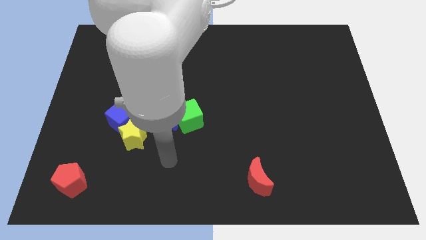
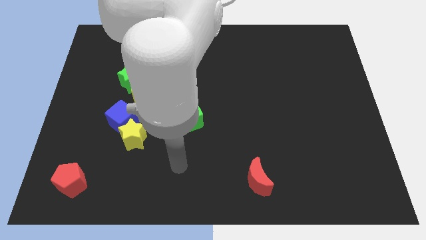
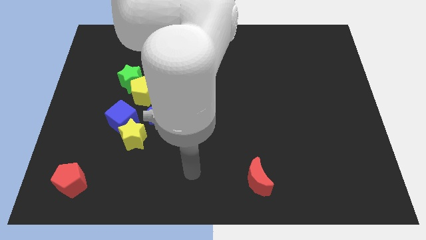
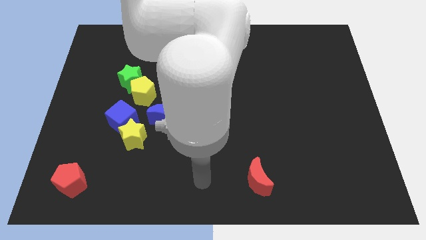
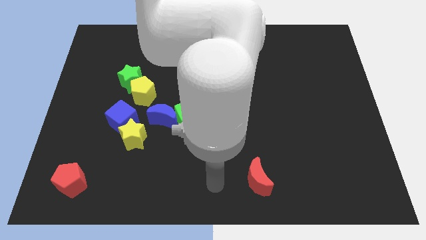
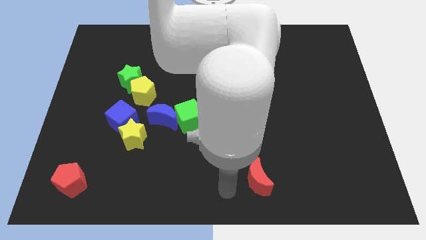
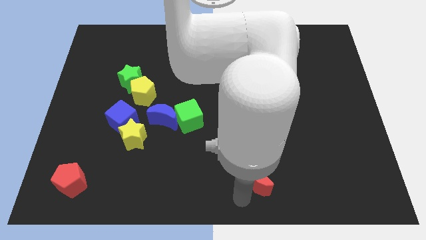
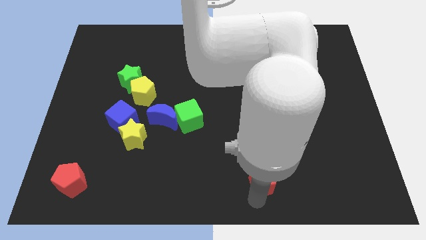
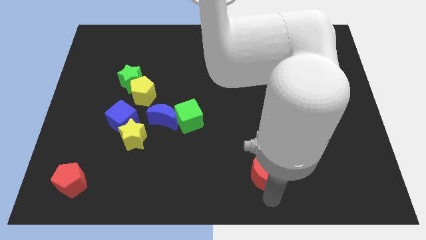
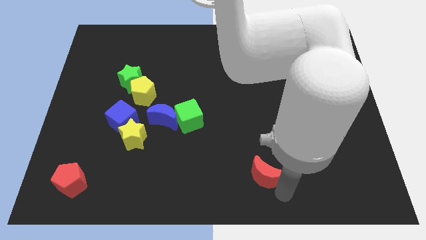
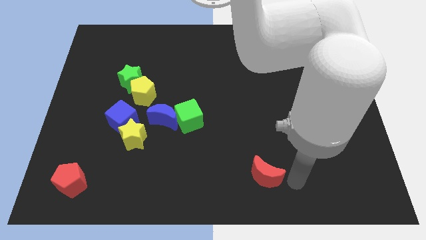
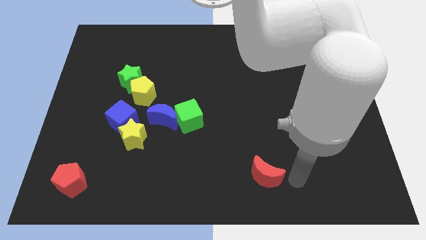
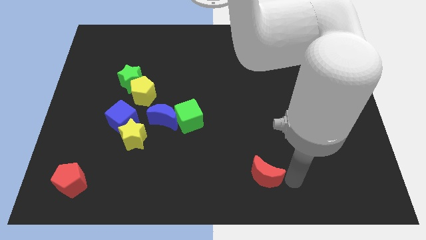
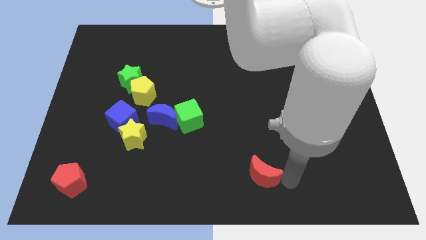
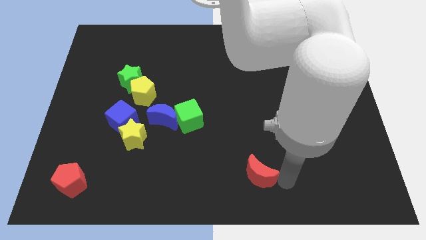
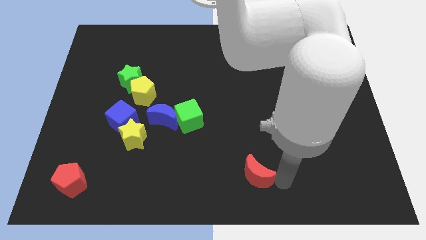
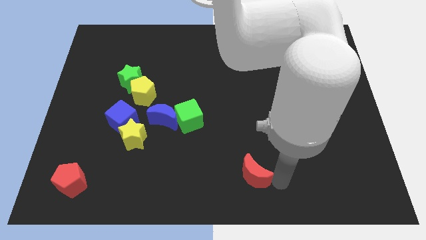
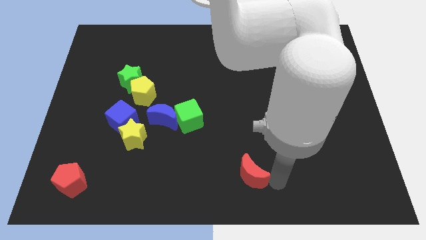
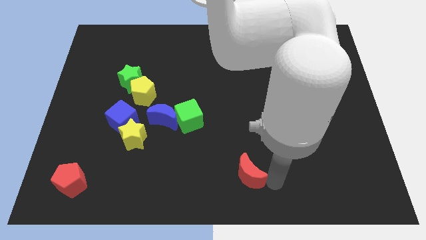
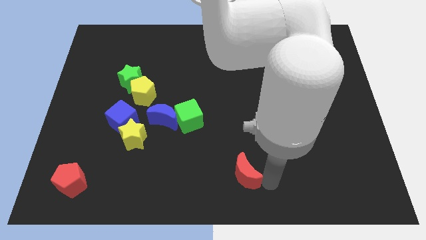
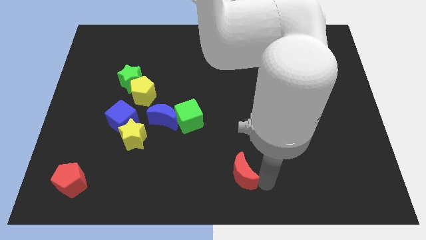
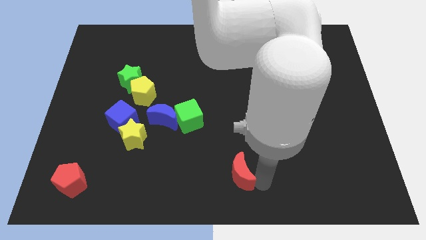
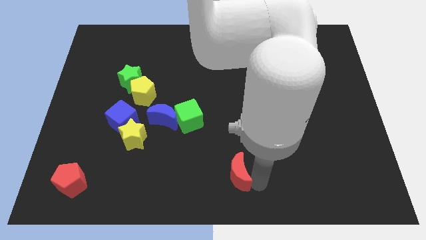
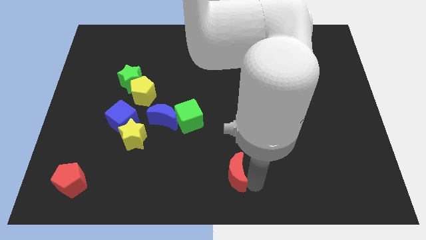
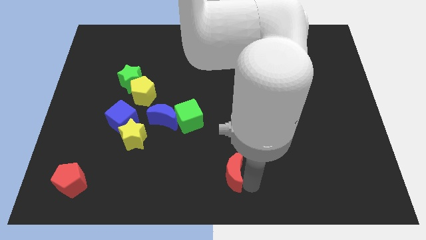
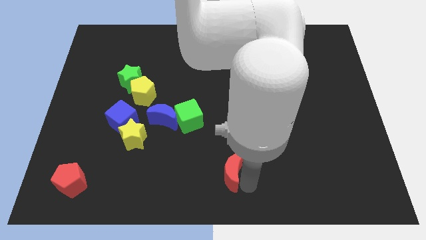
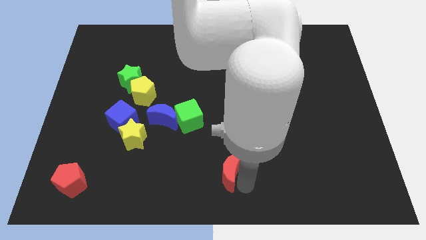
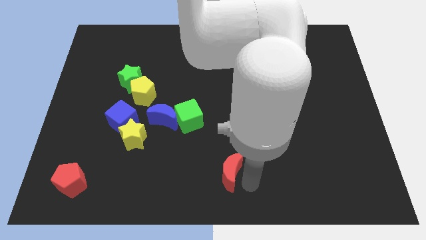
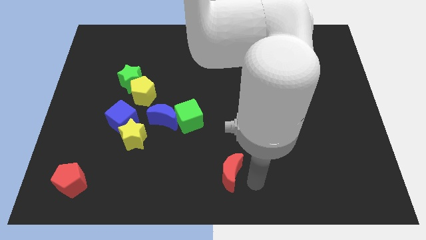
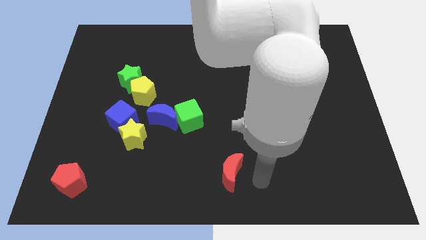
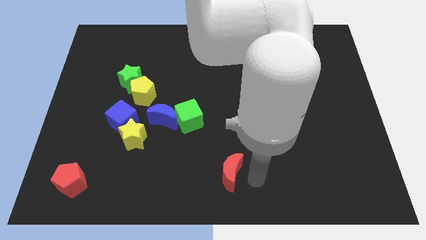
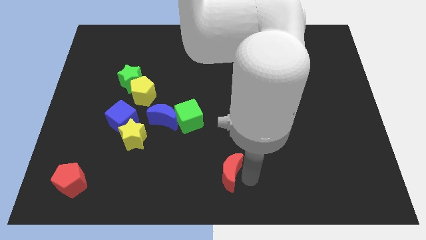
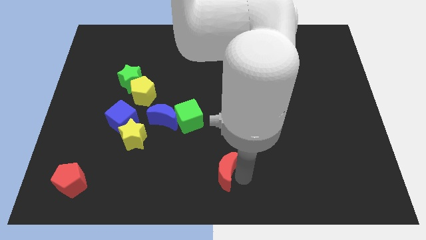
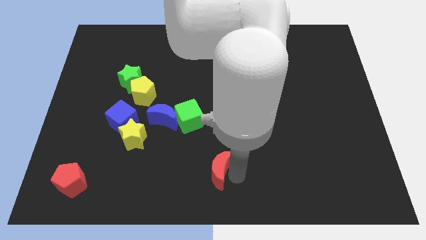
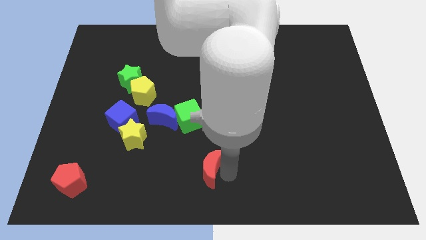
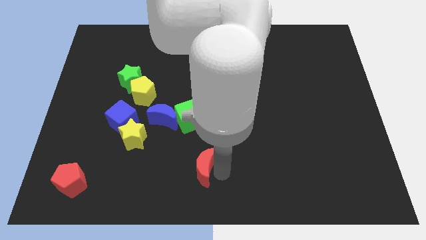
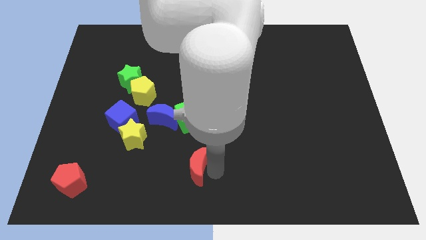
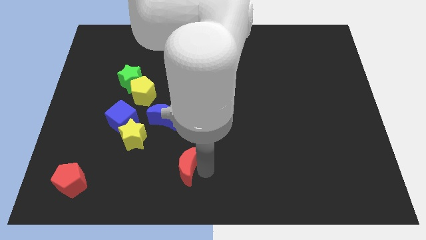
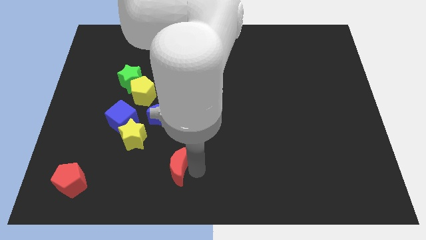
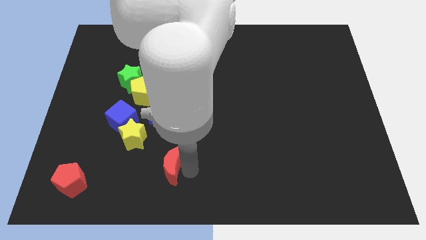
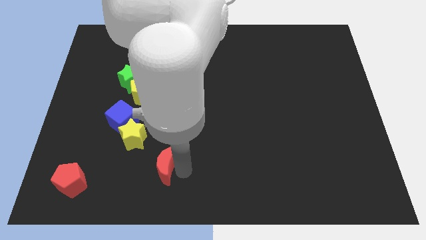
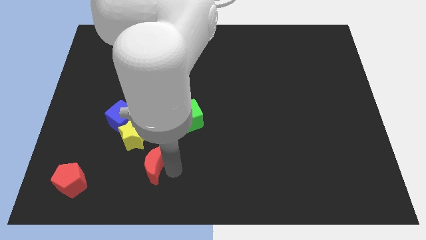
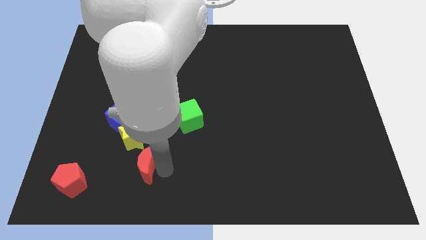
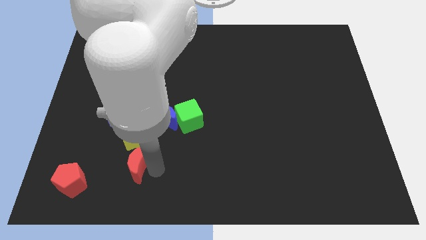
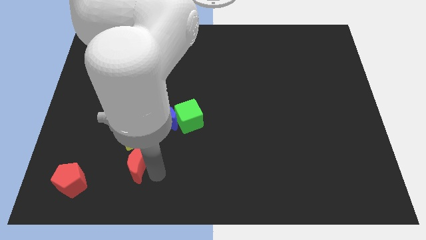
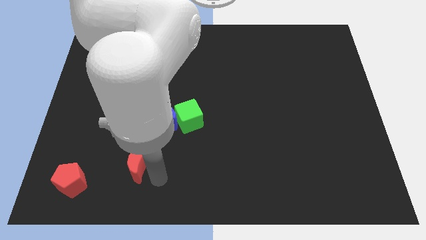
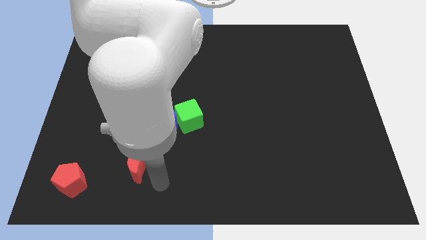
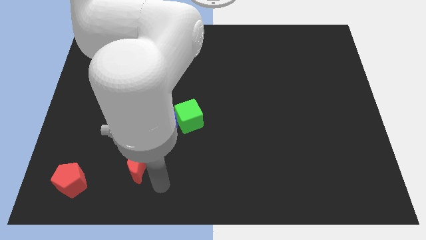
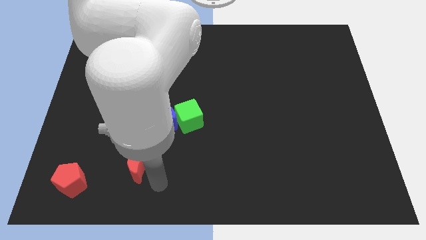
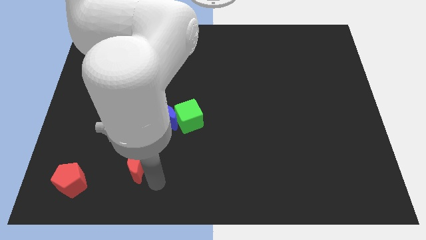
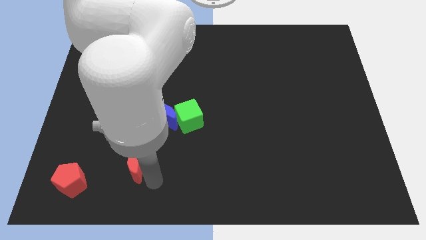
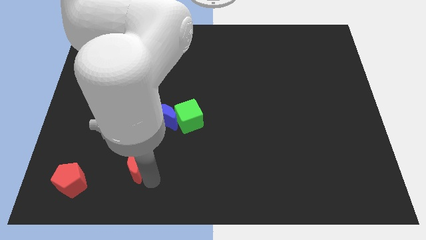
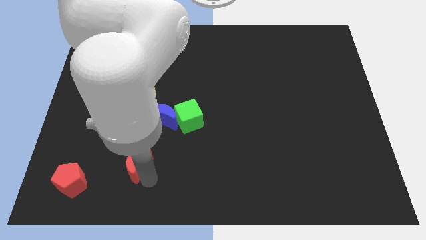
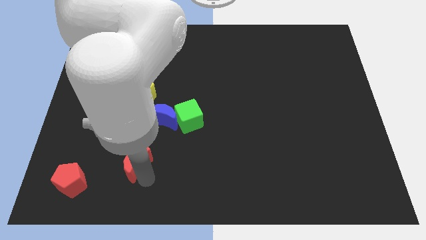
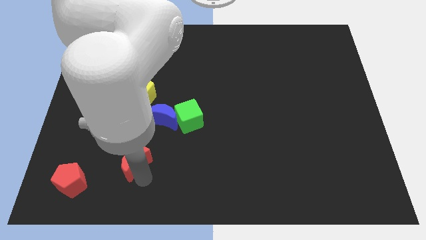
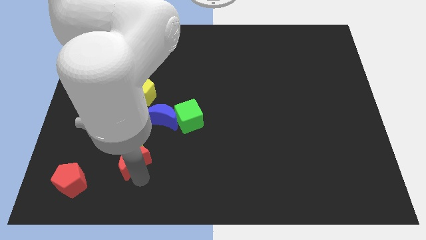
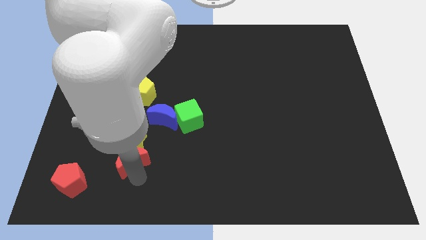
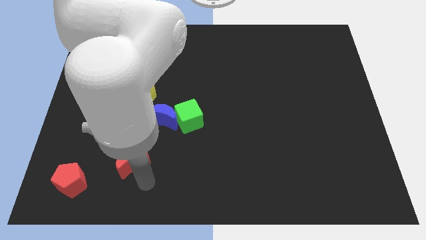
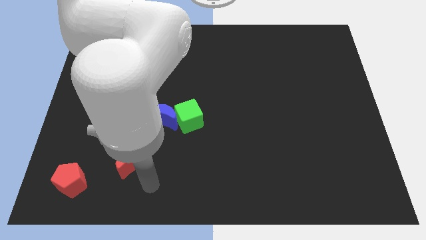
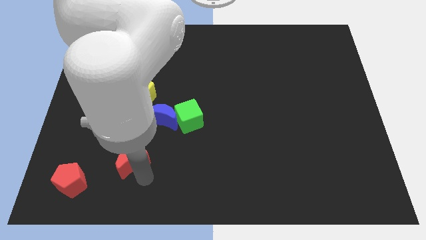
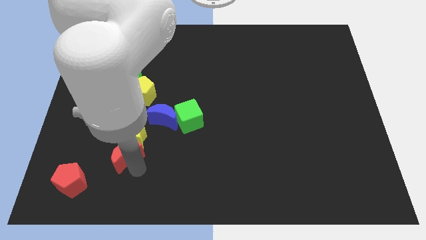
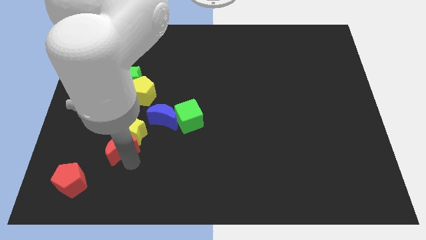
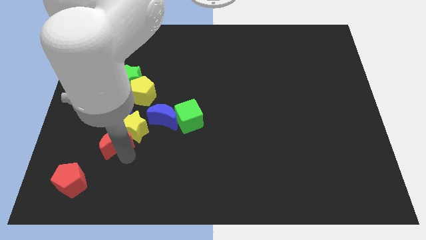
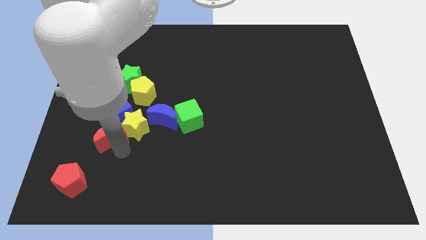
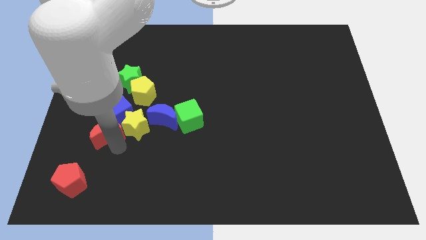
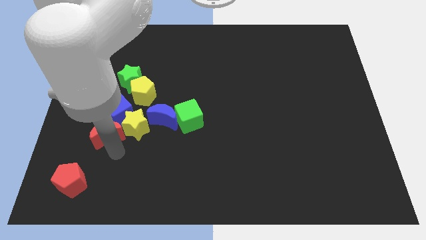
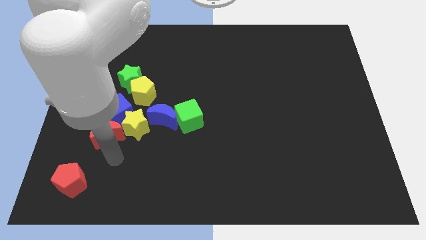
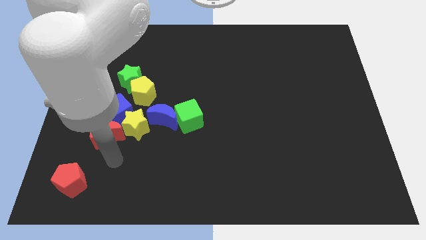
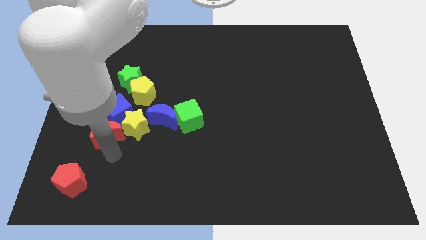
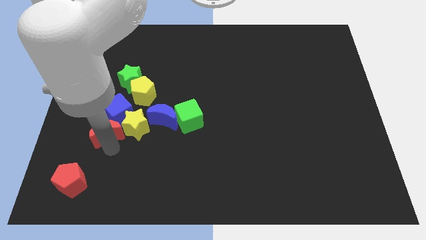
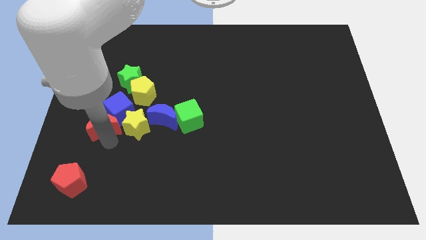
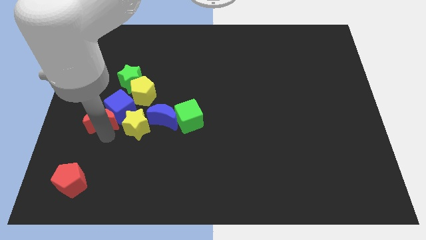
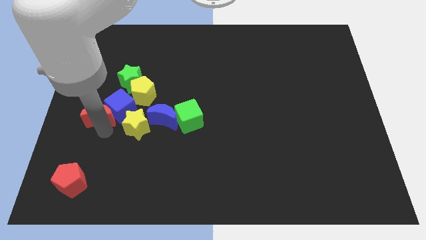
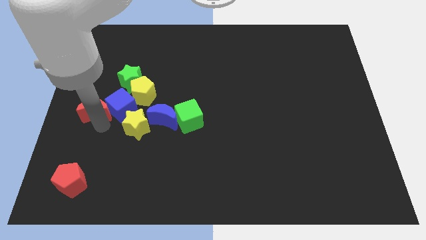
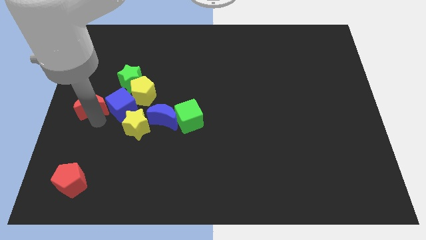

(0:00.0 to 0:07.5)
slide the red moon to the left of the yellow pentagon
